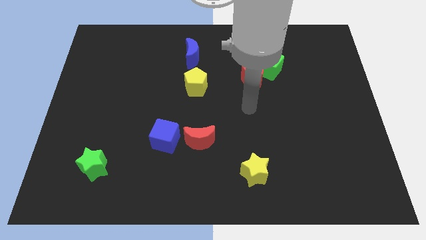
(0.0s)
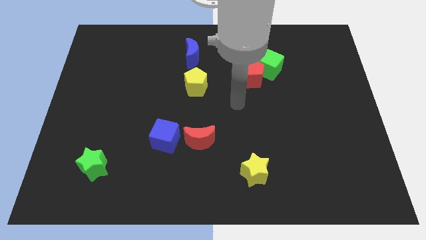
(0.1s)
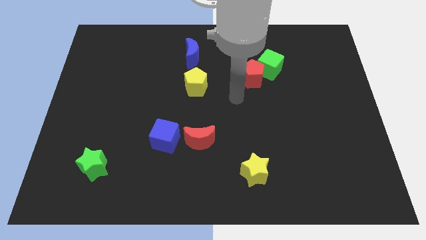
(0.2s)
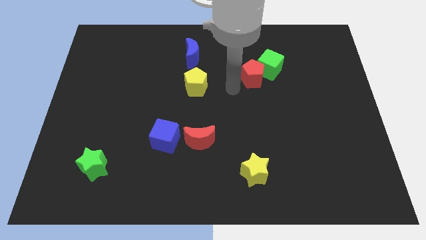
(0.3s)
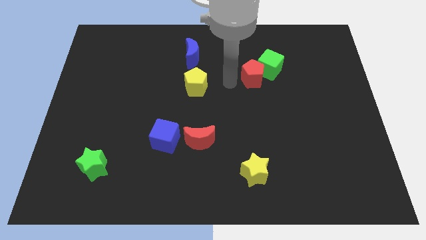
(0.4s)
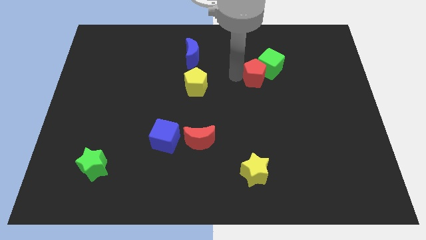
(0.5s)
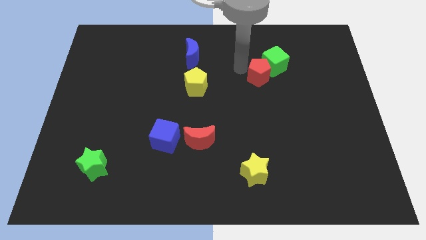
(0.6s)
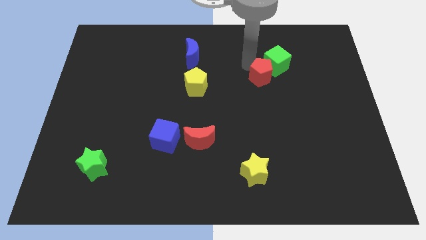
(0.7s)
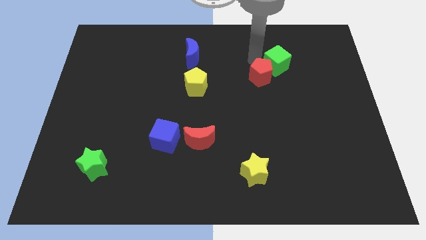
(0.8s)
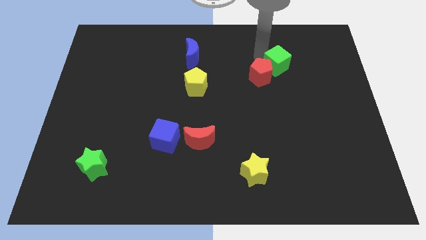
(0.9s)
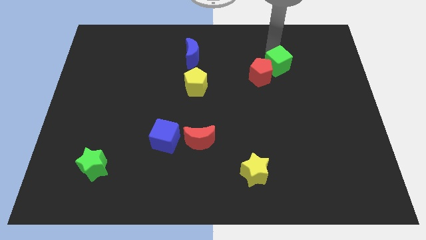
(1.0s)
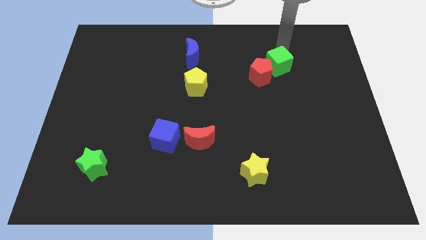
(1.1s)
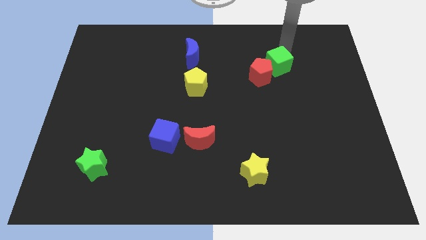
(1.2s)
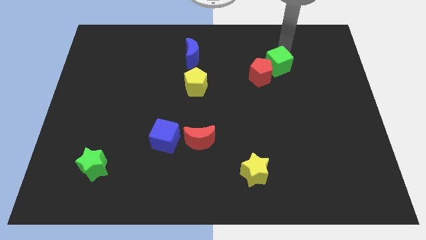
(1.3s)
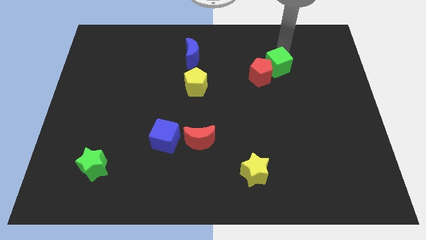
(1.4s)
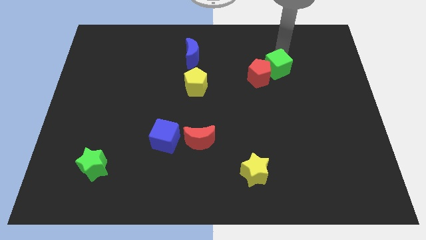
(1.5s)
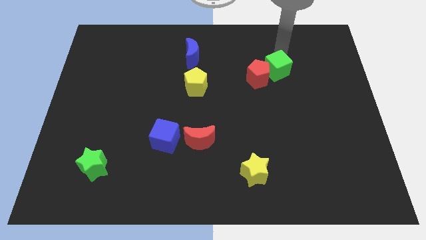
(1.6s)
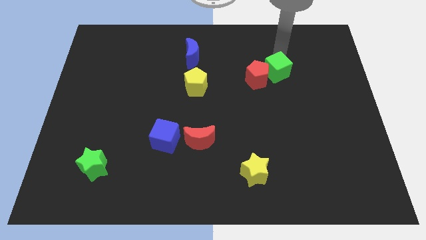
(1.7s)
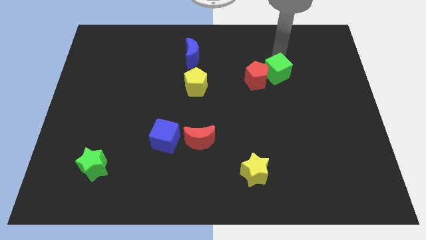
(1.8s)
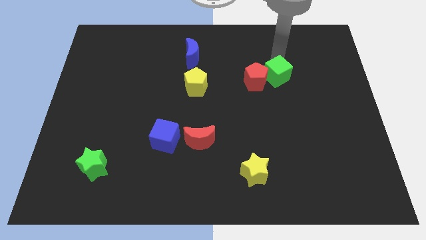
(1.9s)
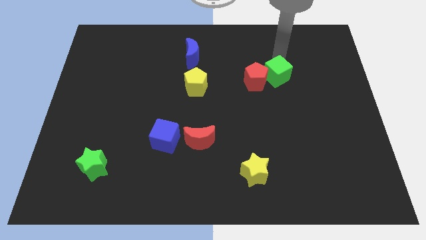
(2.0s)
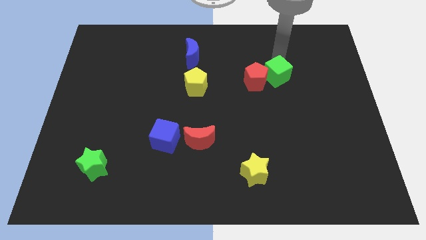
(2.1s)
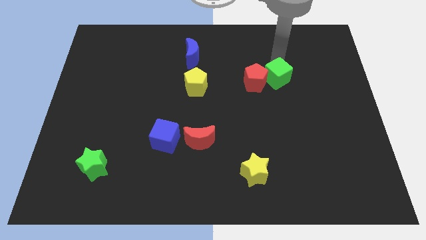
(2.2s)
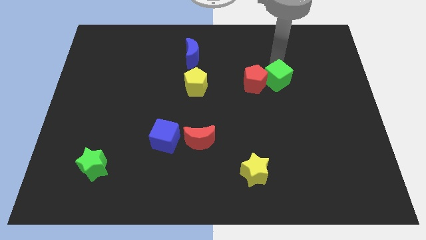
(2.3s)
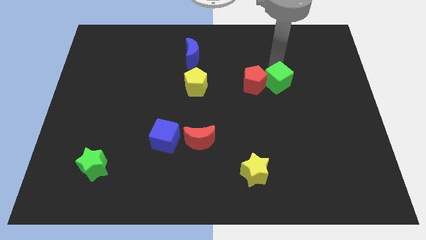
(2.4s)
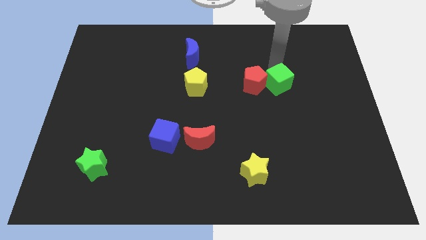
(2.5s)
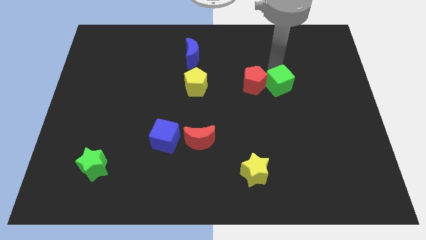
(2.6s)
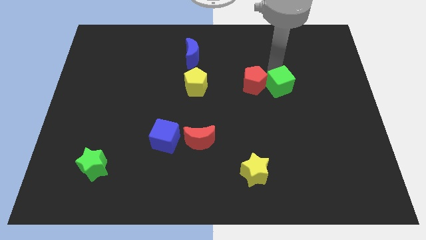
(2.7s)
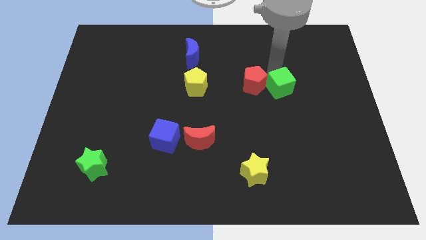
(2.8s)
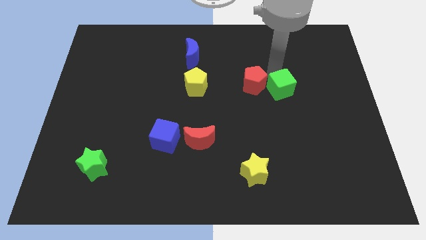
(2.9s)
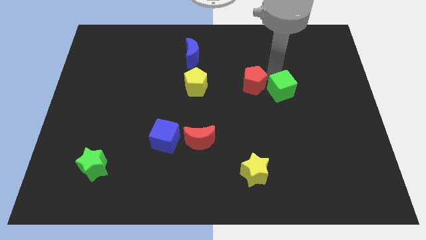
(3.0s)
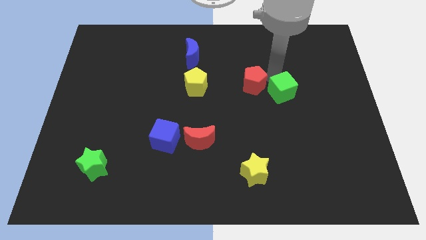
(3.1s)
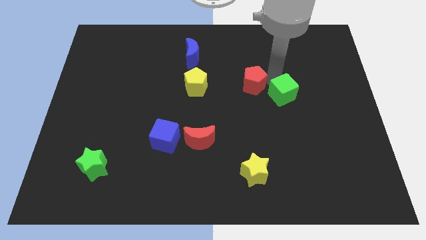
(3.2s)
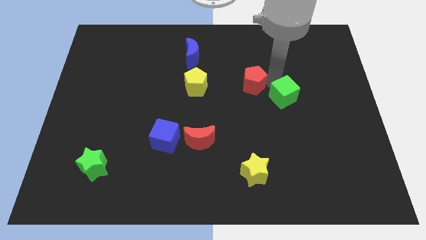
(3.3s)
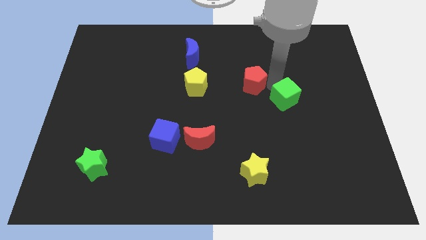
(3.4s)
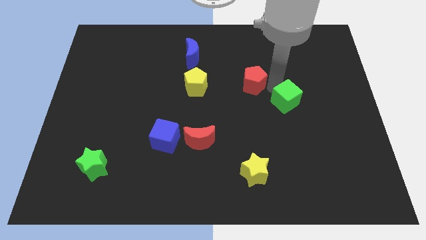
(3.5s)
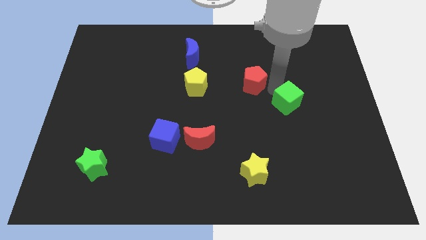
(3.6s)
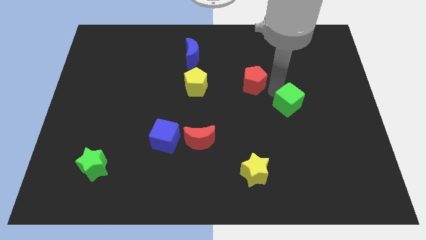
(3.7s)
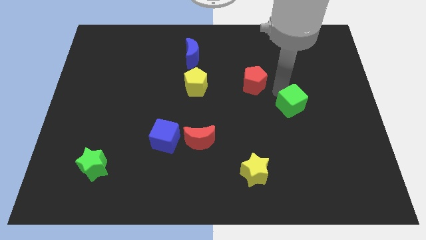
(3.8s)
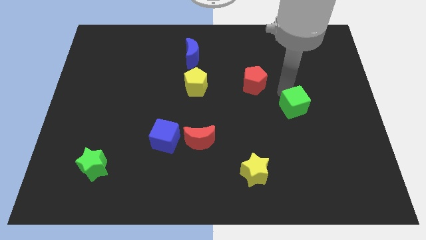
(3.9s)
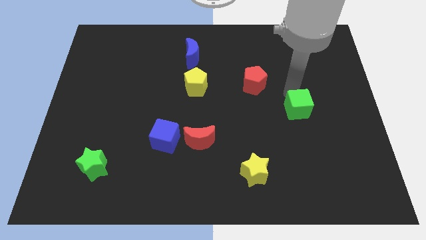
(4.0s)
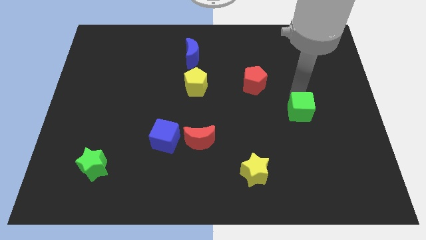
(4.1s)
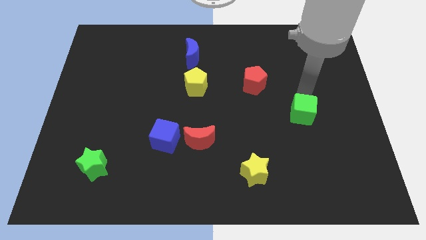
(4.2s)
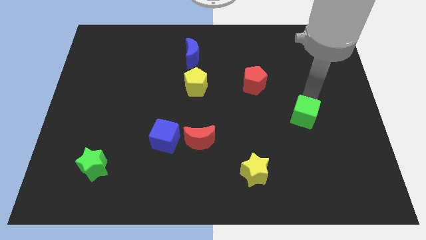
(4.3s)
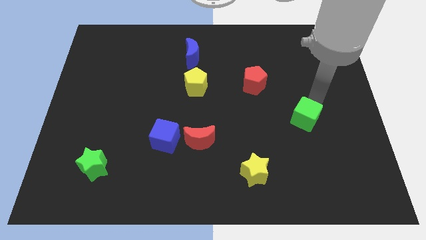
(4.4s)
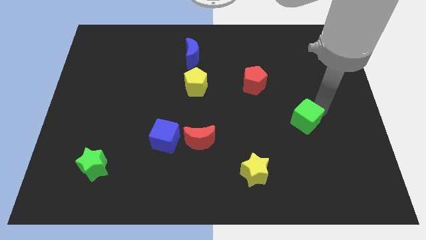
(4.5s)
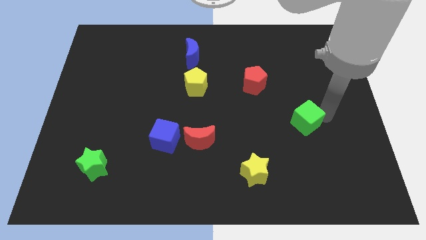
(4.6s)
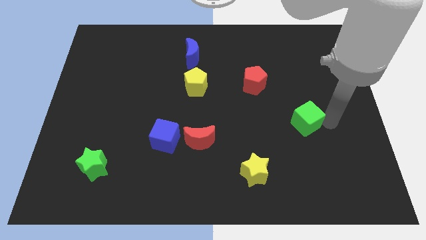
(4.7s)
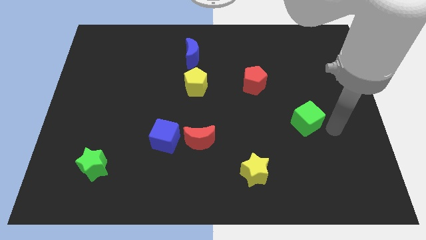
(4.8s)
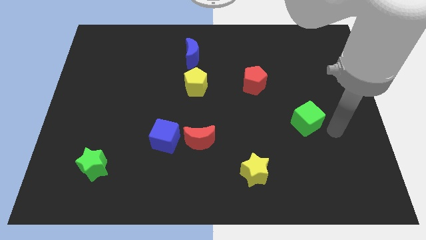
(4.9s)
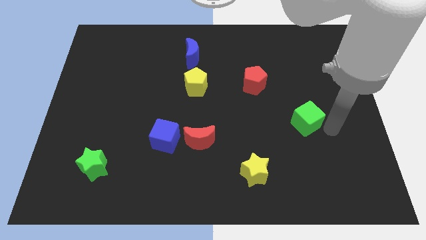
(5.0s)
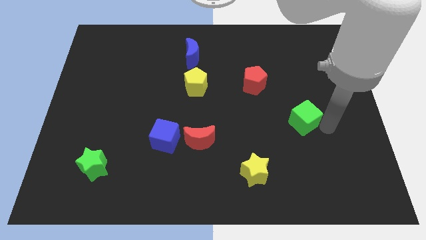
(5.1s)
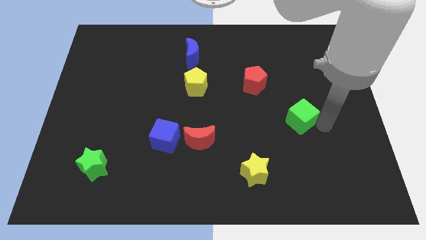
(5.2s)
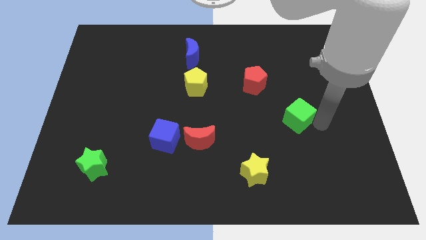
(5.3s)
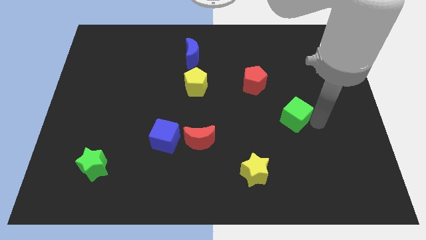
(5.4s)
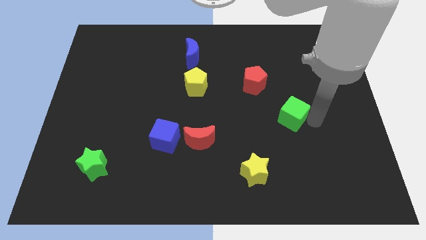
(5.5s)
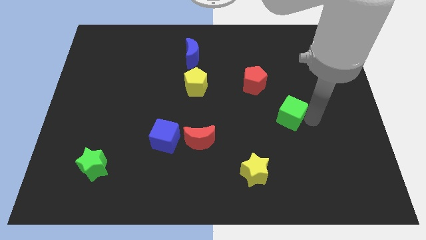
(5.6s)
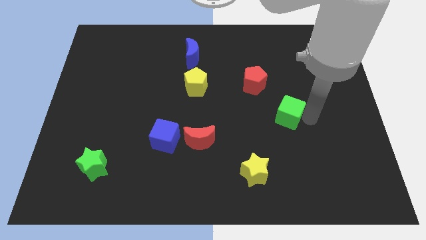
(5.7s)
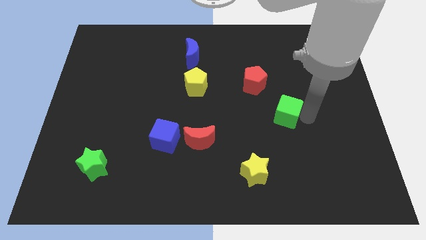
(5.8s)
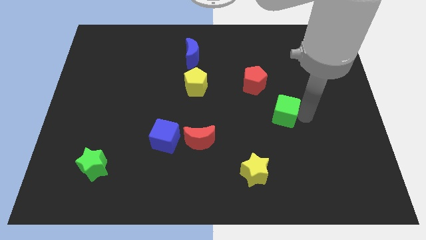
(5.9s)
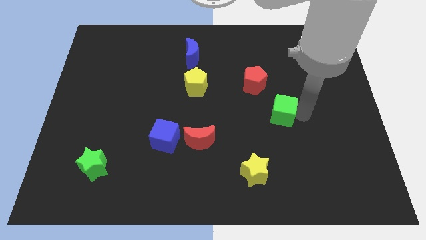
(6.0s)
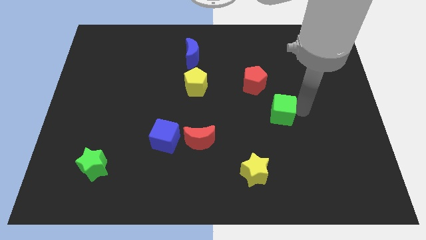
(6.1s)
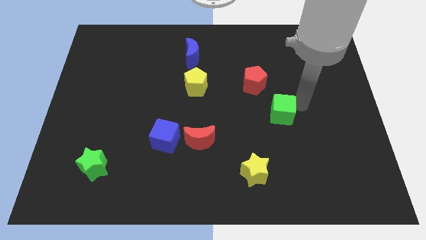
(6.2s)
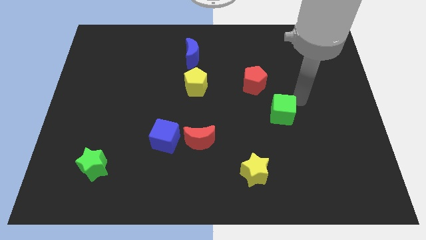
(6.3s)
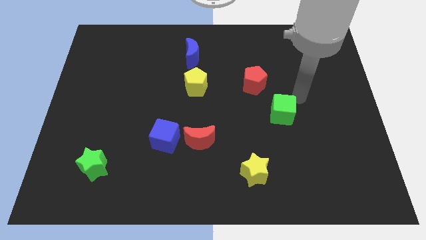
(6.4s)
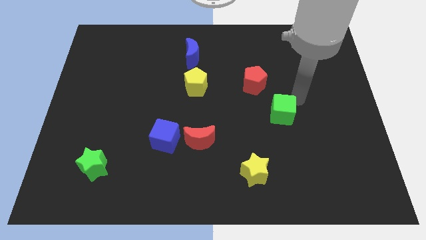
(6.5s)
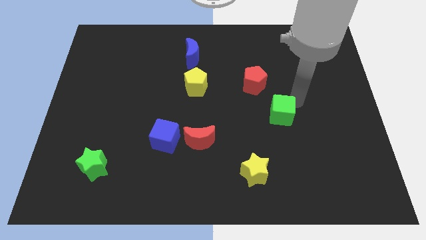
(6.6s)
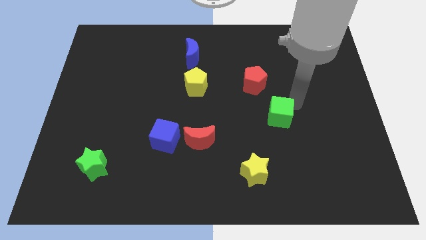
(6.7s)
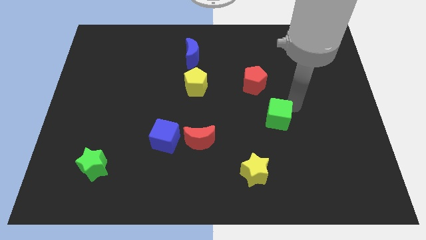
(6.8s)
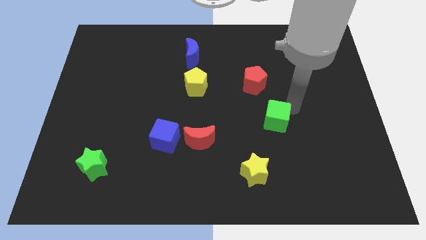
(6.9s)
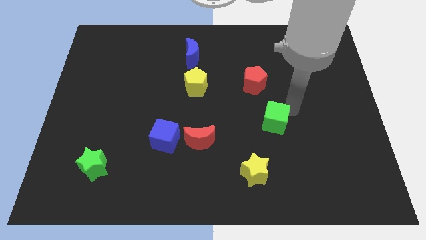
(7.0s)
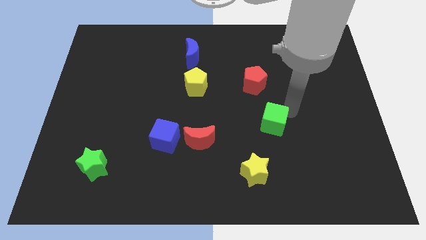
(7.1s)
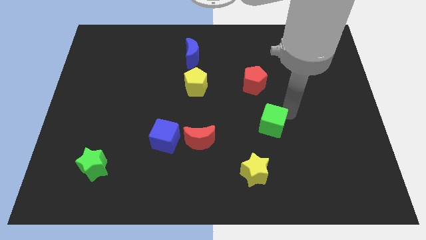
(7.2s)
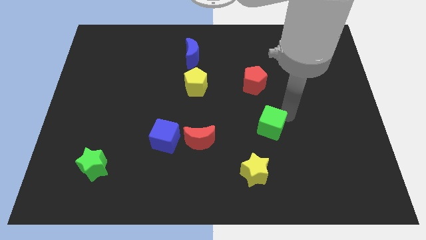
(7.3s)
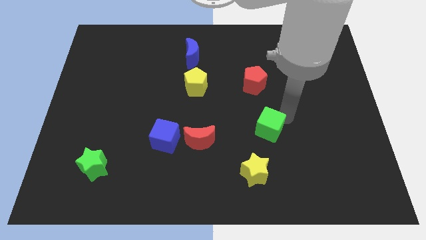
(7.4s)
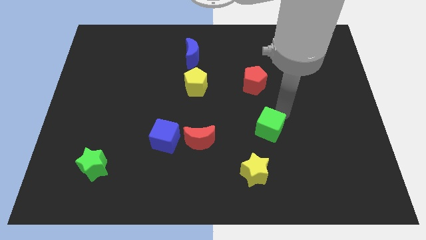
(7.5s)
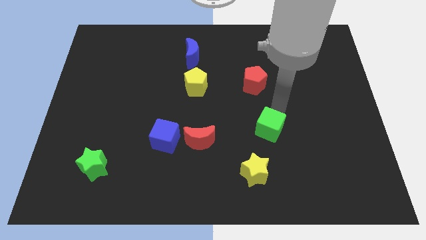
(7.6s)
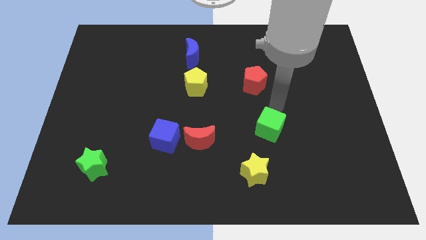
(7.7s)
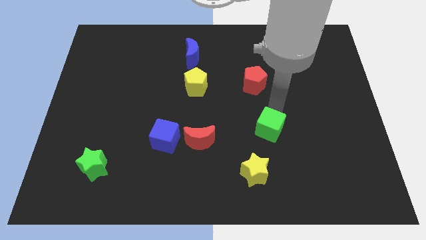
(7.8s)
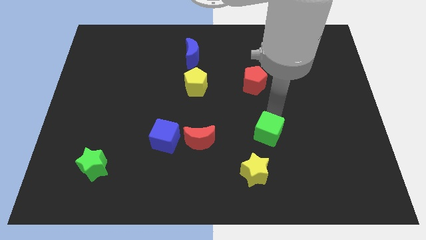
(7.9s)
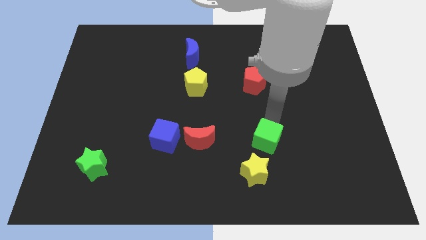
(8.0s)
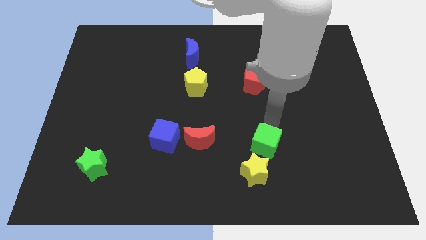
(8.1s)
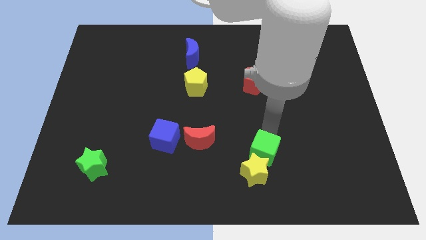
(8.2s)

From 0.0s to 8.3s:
push the green cube to the yellow star
